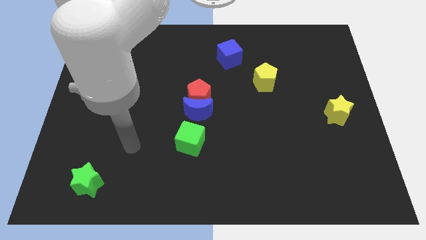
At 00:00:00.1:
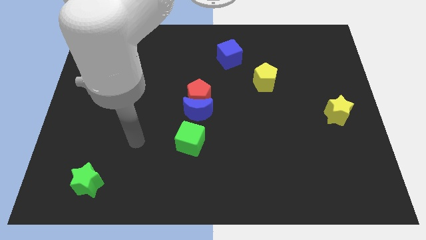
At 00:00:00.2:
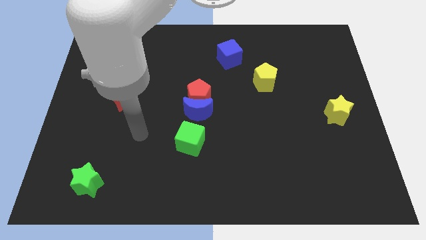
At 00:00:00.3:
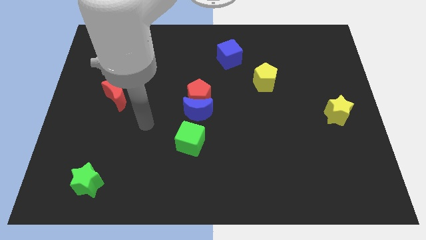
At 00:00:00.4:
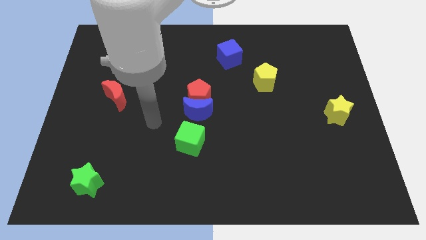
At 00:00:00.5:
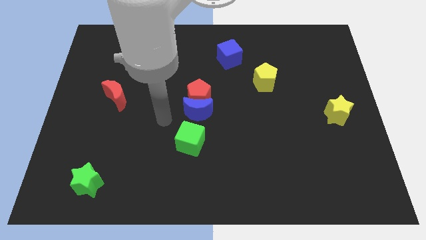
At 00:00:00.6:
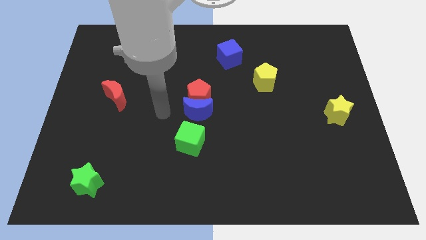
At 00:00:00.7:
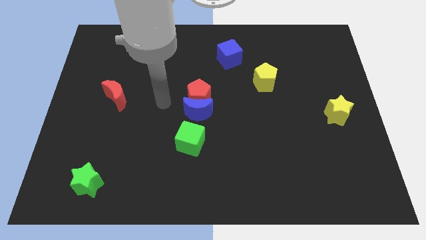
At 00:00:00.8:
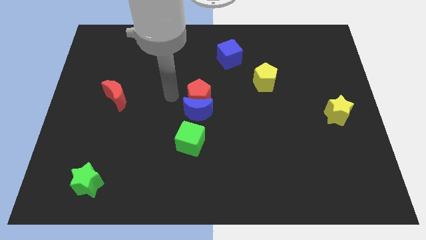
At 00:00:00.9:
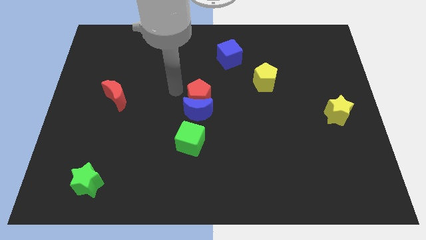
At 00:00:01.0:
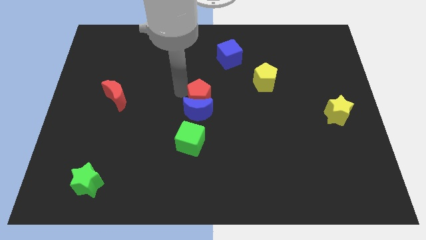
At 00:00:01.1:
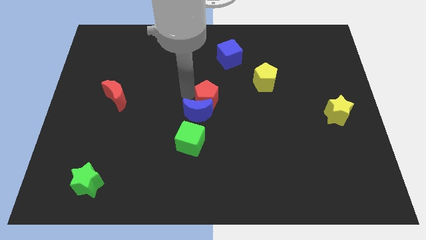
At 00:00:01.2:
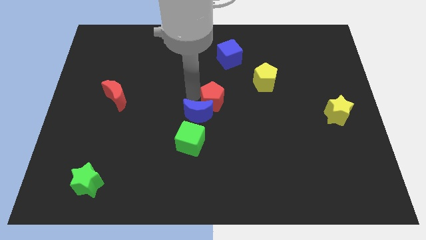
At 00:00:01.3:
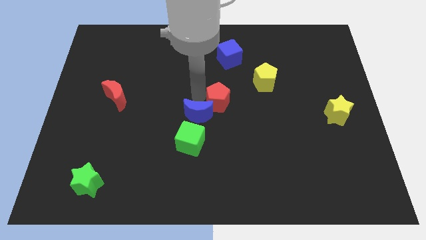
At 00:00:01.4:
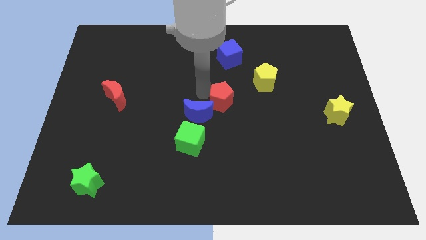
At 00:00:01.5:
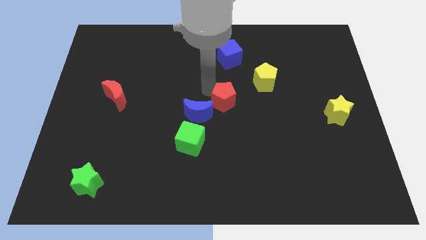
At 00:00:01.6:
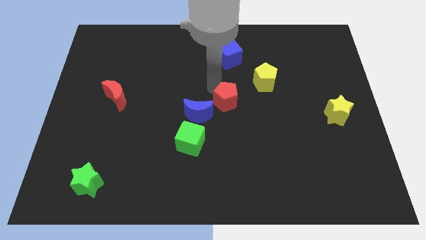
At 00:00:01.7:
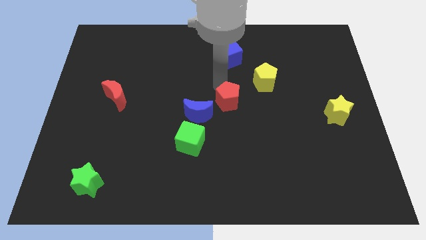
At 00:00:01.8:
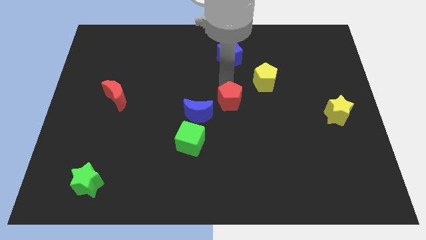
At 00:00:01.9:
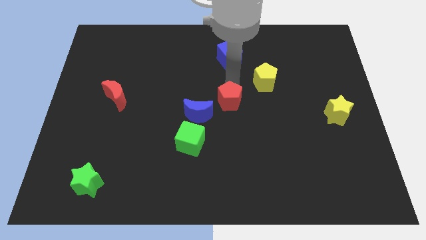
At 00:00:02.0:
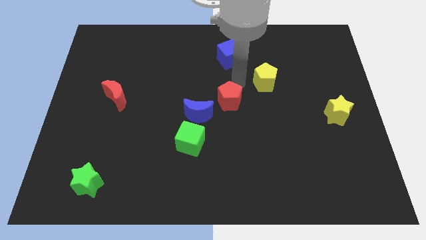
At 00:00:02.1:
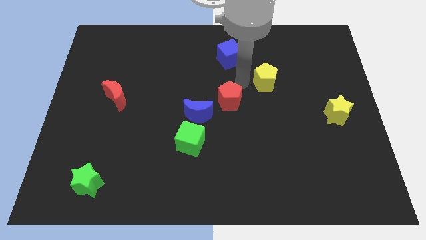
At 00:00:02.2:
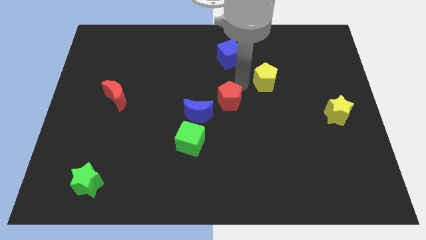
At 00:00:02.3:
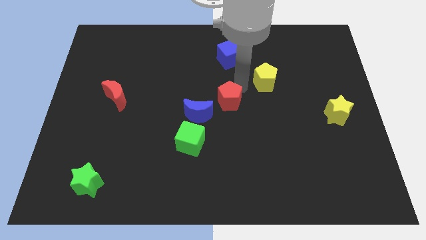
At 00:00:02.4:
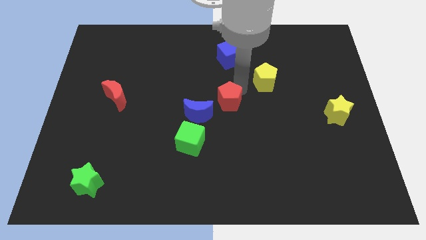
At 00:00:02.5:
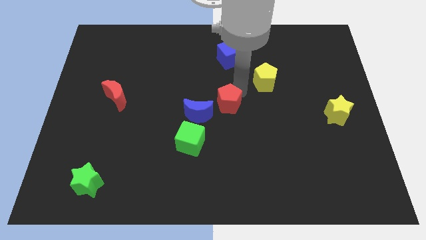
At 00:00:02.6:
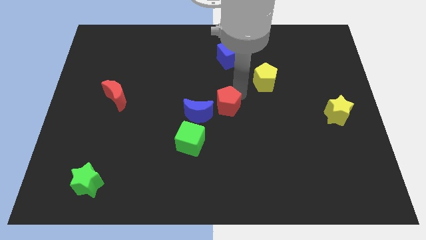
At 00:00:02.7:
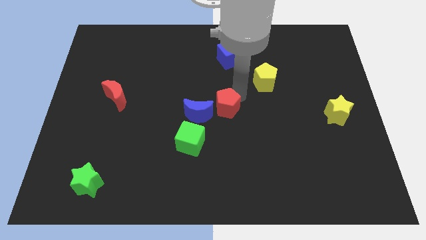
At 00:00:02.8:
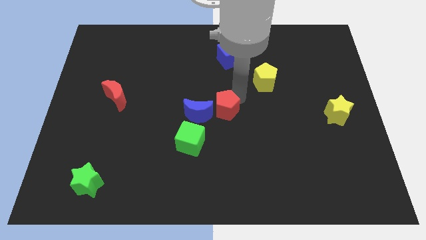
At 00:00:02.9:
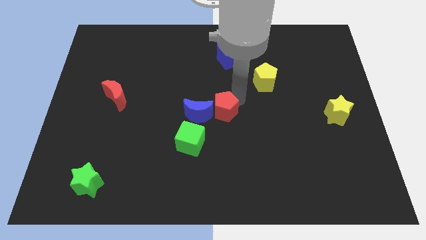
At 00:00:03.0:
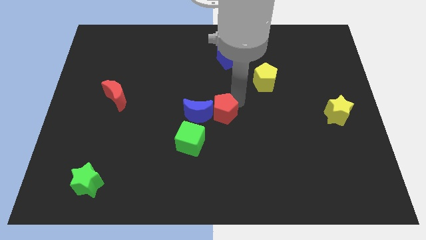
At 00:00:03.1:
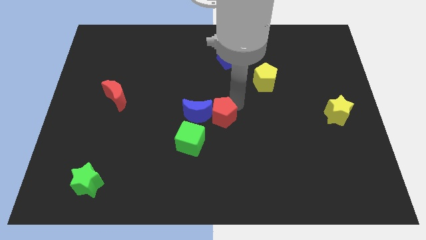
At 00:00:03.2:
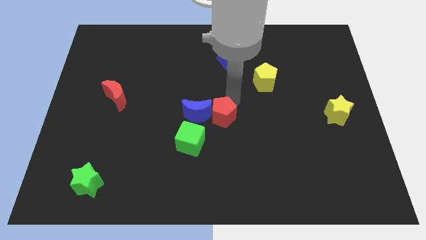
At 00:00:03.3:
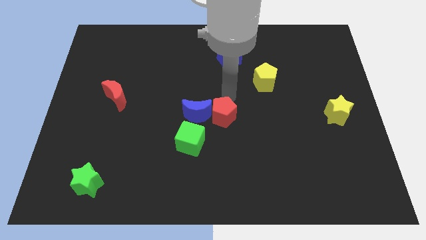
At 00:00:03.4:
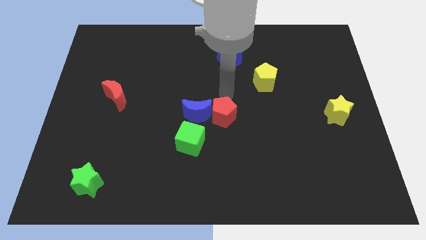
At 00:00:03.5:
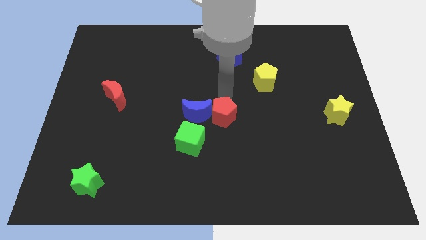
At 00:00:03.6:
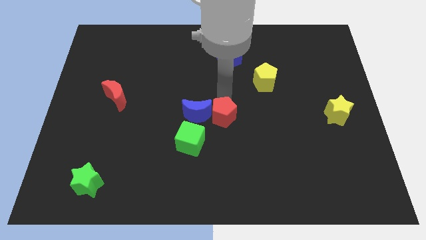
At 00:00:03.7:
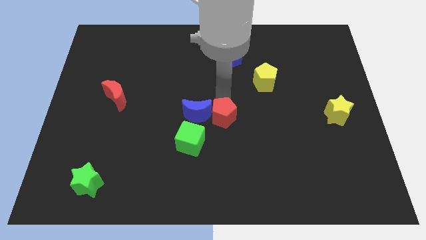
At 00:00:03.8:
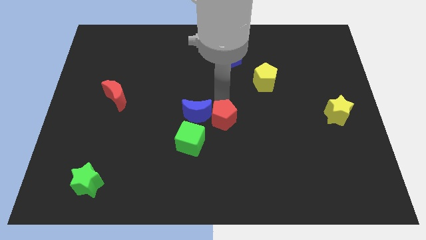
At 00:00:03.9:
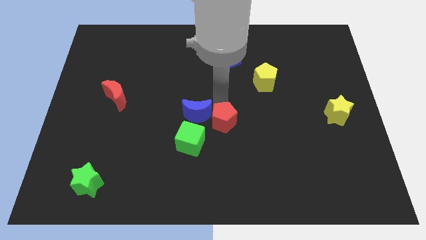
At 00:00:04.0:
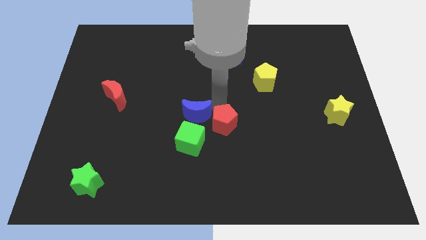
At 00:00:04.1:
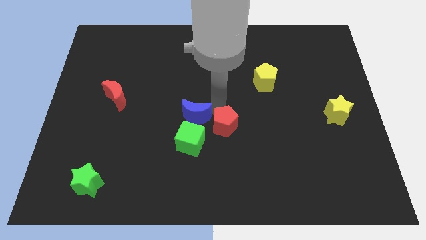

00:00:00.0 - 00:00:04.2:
slide the red pentagon downwards a little

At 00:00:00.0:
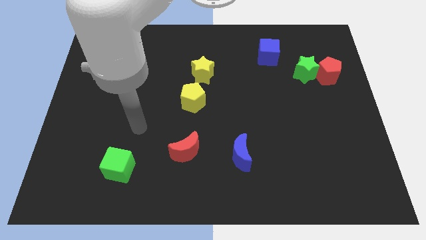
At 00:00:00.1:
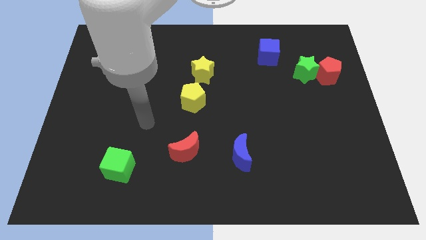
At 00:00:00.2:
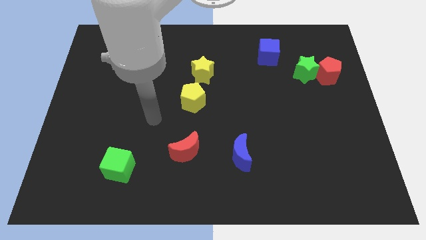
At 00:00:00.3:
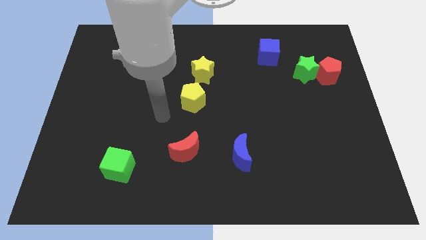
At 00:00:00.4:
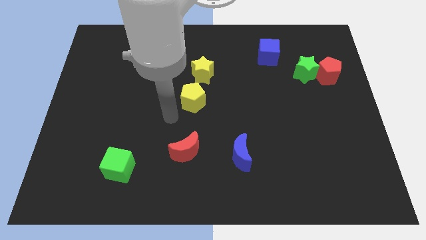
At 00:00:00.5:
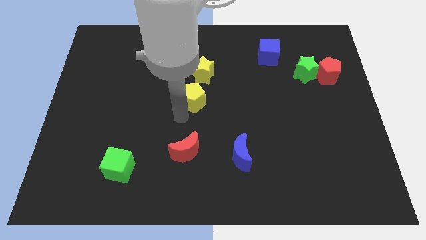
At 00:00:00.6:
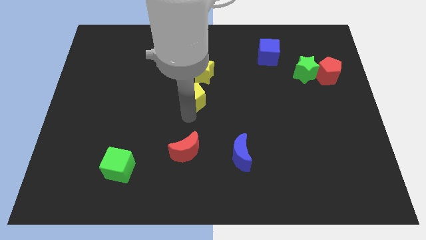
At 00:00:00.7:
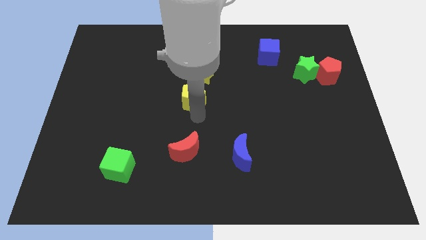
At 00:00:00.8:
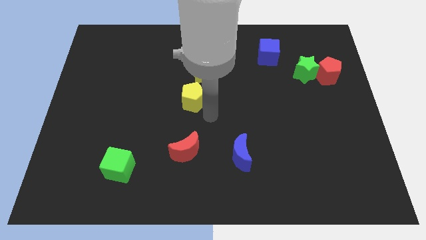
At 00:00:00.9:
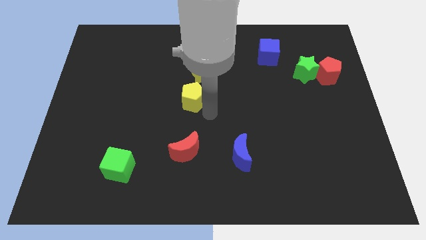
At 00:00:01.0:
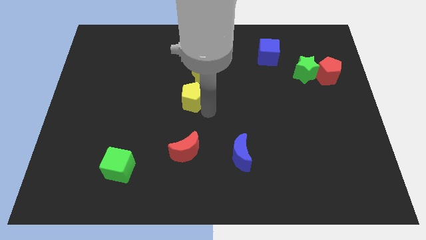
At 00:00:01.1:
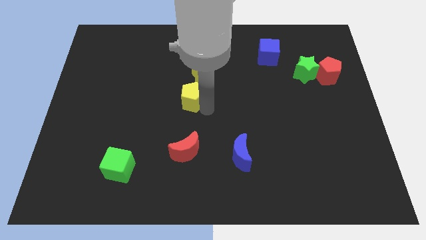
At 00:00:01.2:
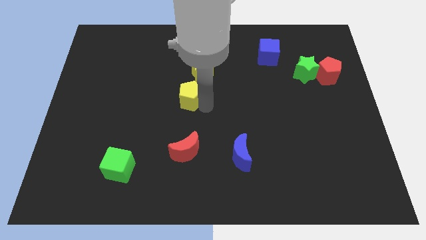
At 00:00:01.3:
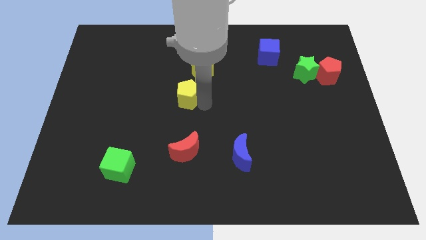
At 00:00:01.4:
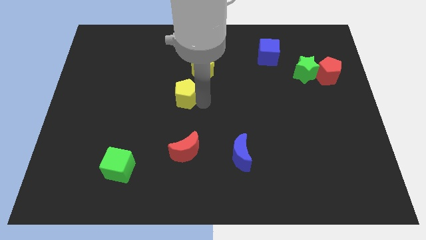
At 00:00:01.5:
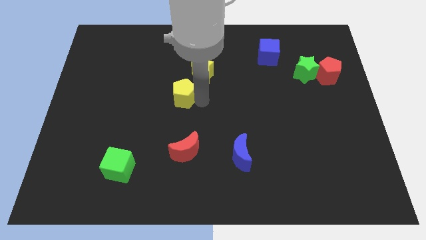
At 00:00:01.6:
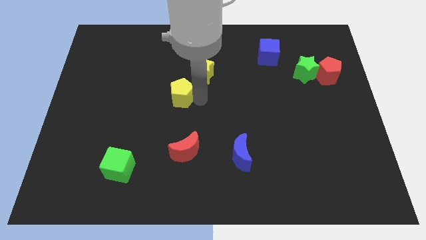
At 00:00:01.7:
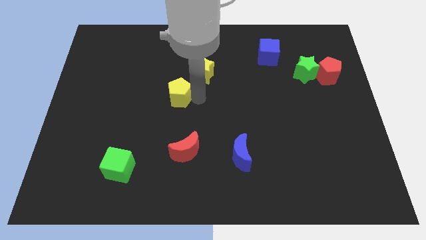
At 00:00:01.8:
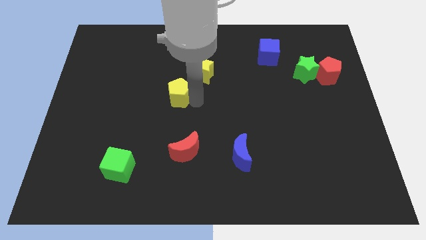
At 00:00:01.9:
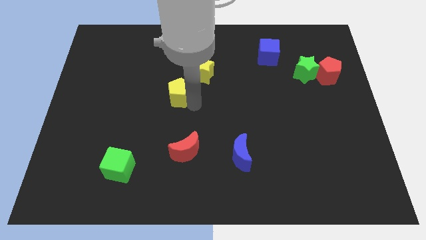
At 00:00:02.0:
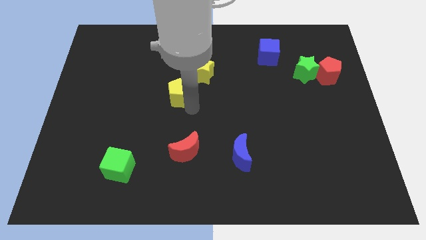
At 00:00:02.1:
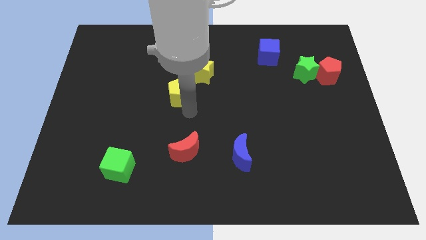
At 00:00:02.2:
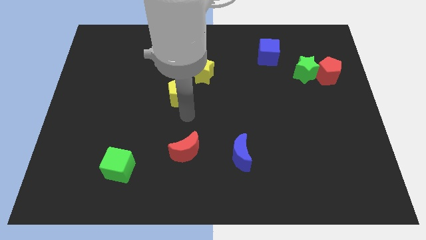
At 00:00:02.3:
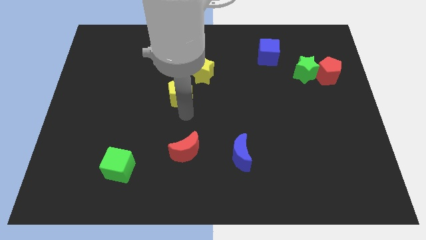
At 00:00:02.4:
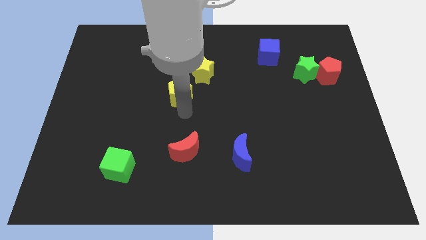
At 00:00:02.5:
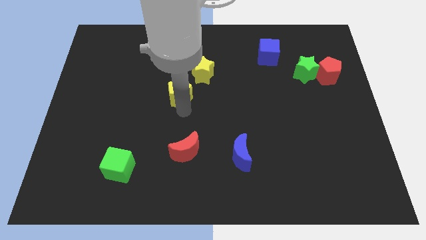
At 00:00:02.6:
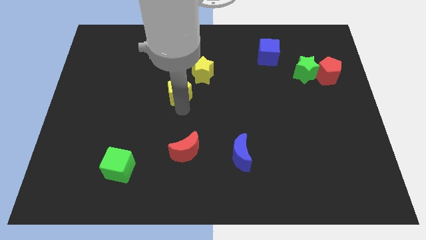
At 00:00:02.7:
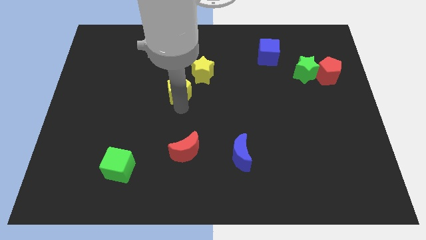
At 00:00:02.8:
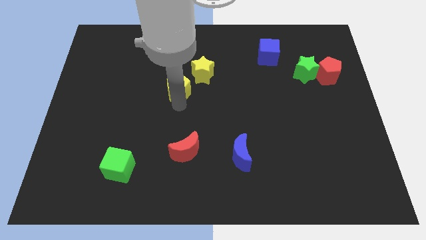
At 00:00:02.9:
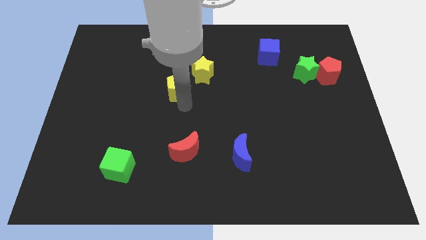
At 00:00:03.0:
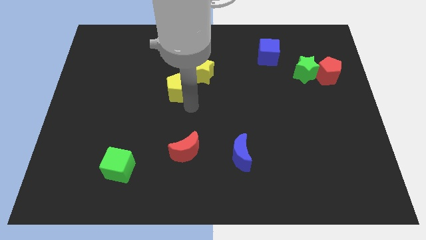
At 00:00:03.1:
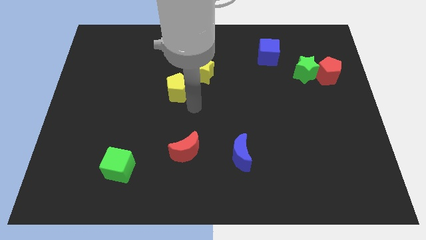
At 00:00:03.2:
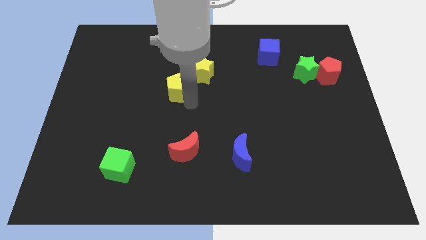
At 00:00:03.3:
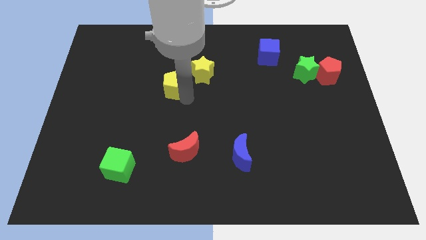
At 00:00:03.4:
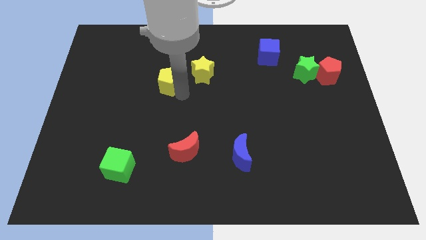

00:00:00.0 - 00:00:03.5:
slightly move the yellow pentagon up and left diagonally

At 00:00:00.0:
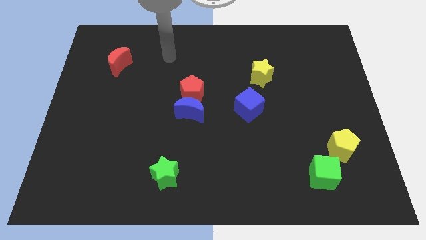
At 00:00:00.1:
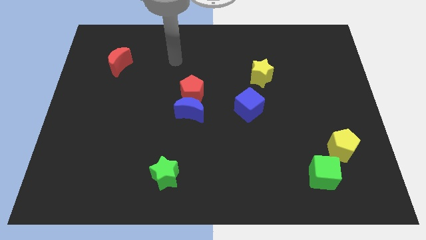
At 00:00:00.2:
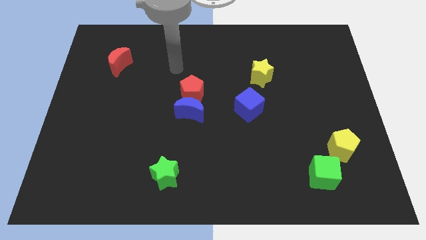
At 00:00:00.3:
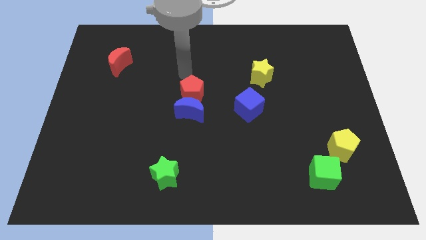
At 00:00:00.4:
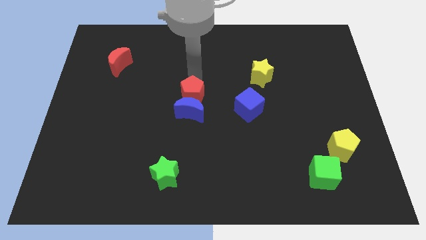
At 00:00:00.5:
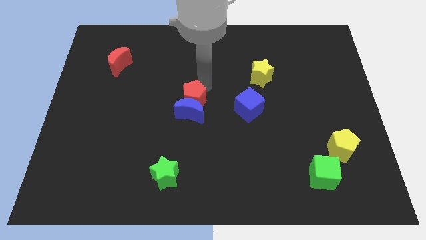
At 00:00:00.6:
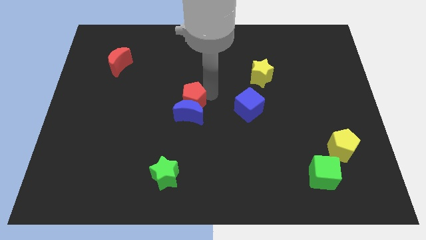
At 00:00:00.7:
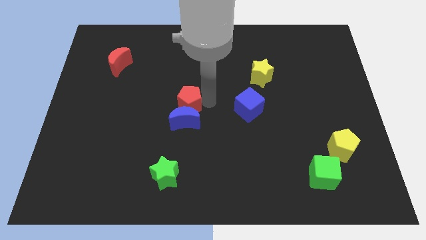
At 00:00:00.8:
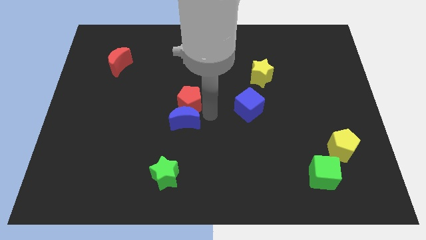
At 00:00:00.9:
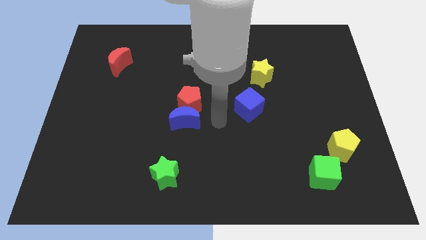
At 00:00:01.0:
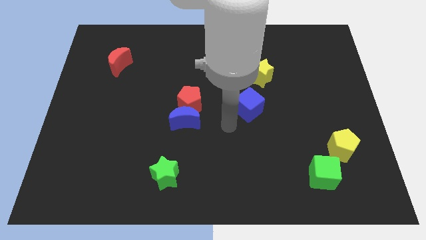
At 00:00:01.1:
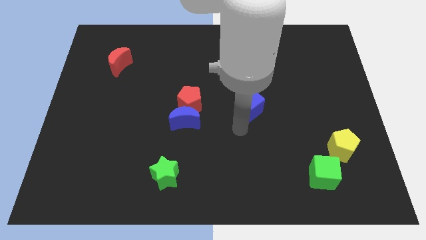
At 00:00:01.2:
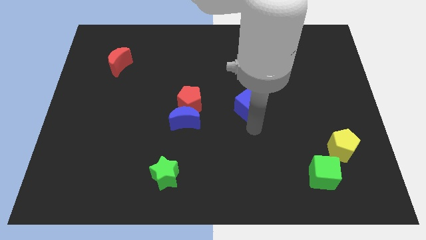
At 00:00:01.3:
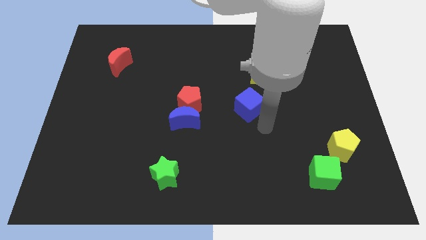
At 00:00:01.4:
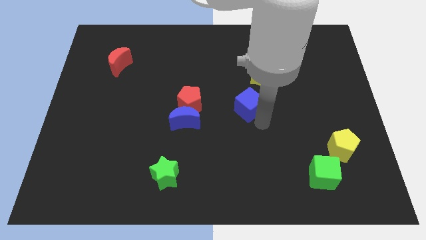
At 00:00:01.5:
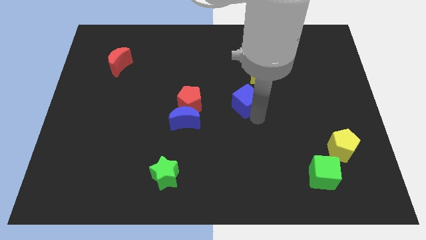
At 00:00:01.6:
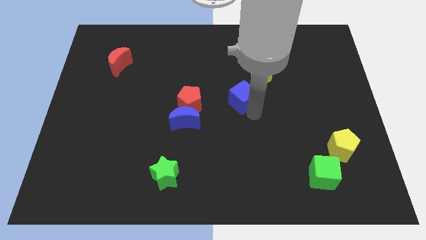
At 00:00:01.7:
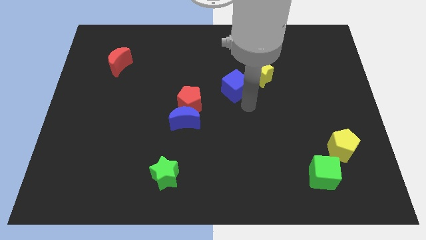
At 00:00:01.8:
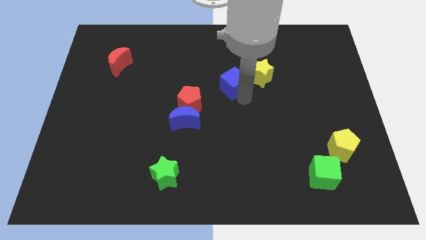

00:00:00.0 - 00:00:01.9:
push the blue cube upwards and to the left diagonally slightly
